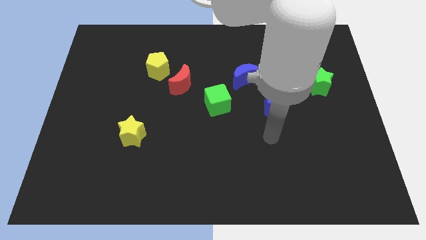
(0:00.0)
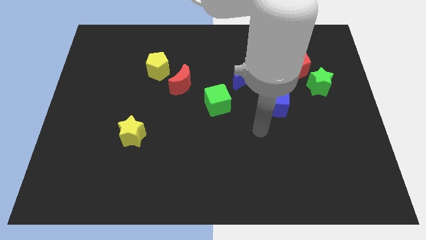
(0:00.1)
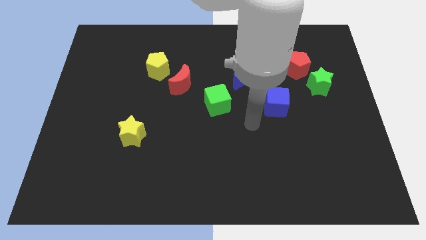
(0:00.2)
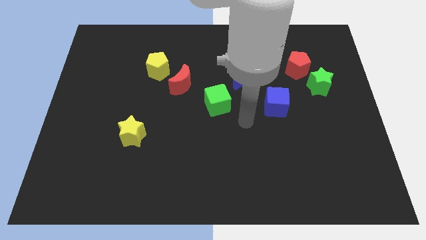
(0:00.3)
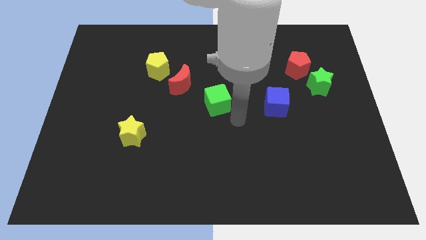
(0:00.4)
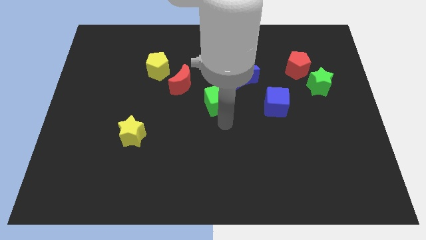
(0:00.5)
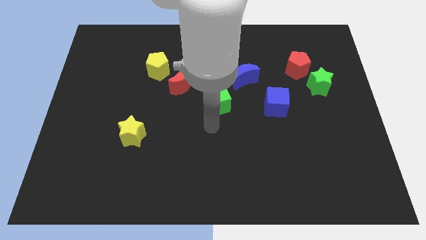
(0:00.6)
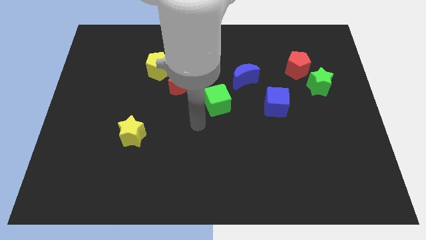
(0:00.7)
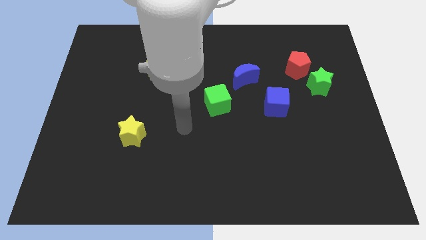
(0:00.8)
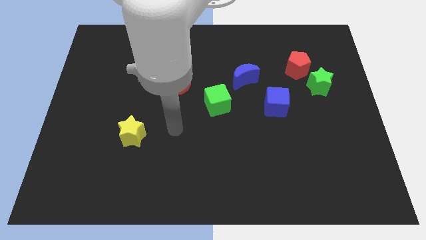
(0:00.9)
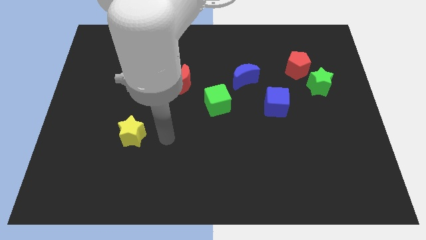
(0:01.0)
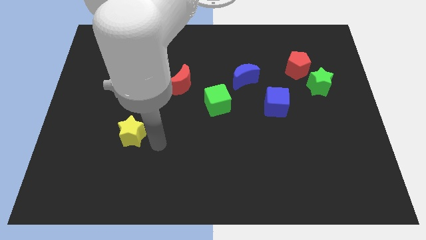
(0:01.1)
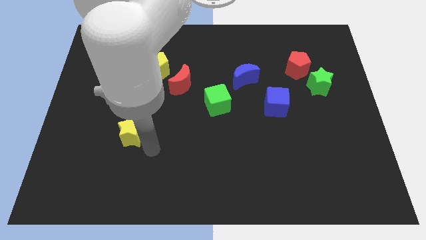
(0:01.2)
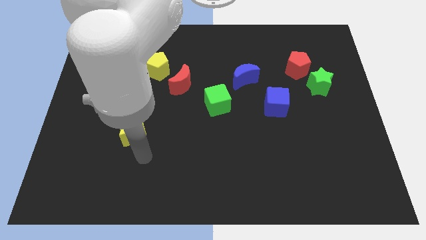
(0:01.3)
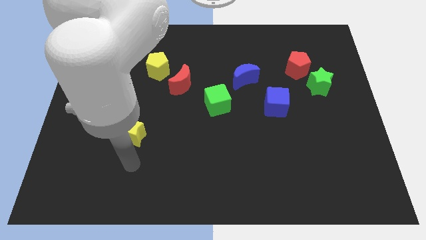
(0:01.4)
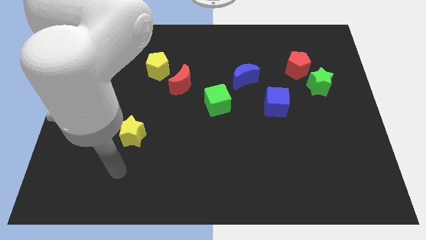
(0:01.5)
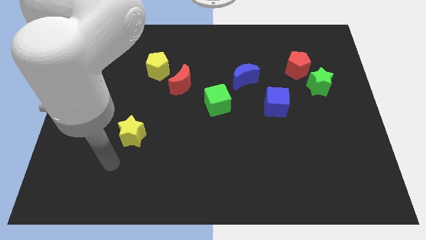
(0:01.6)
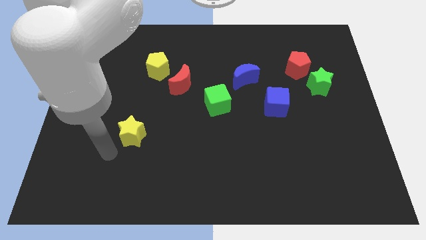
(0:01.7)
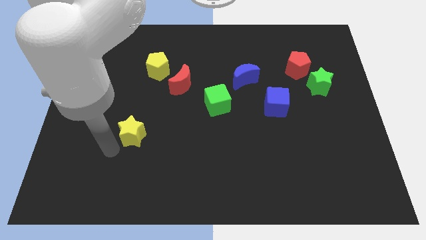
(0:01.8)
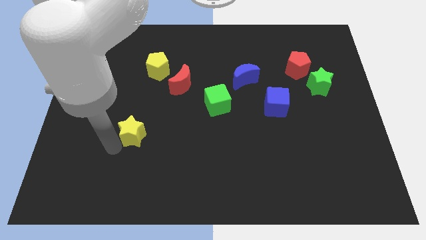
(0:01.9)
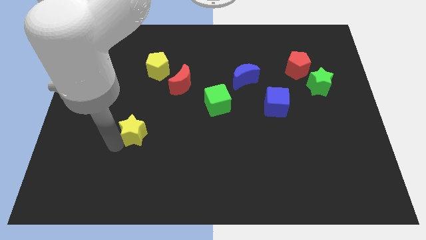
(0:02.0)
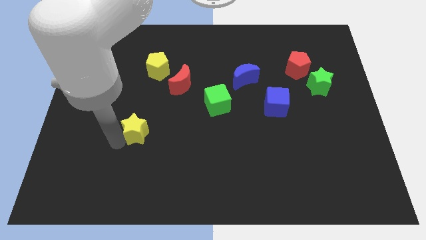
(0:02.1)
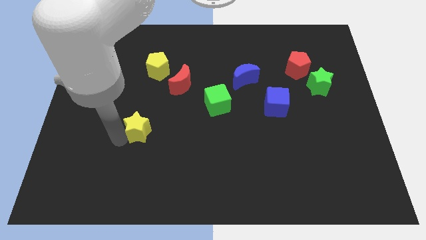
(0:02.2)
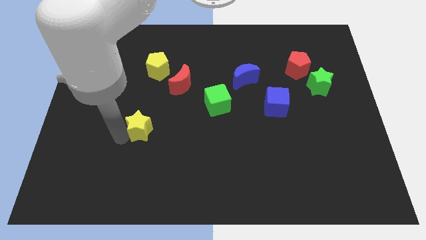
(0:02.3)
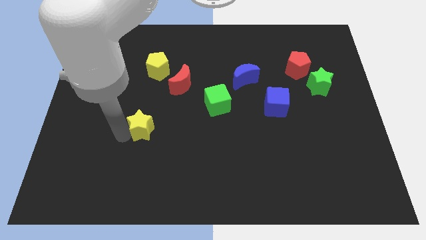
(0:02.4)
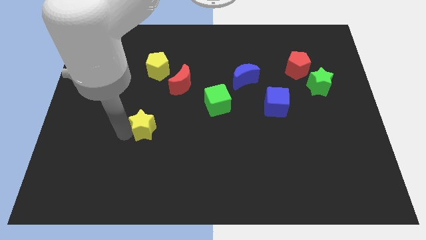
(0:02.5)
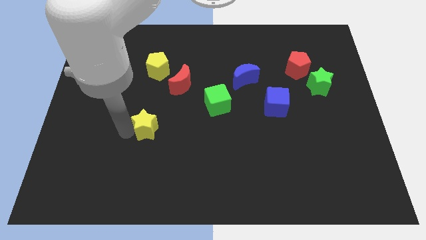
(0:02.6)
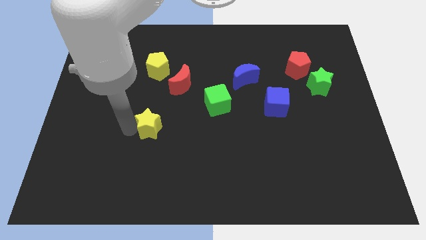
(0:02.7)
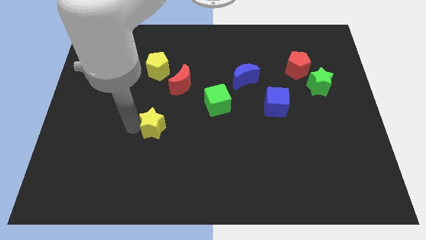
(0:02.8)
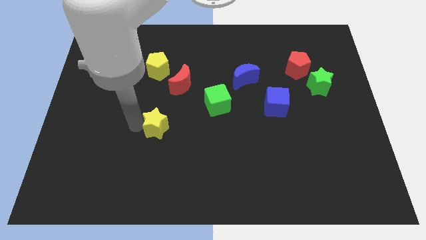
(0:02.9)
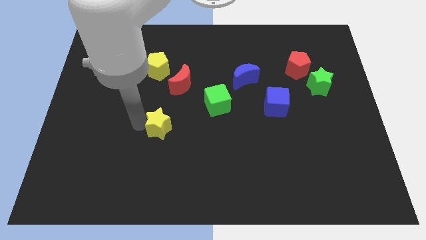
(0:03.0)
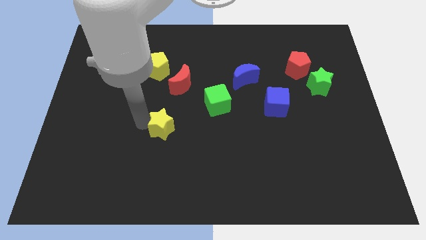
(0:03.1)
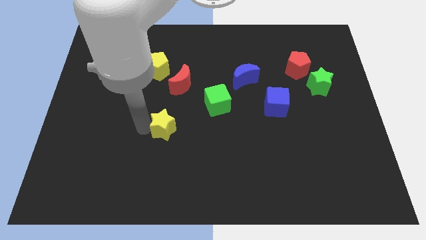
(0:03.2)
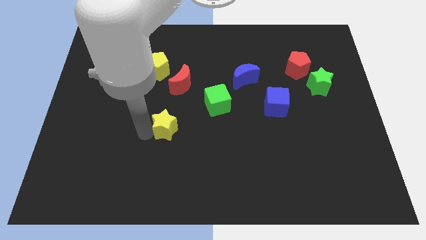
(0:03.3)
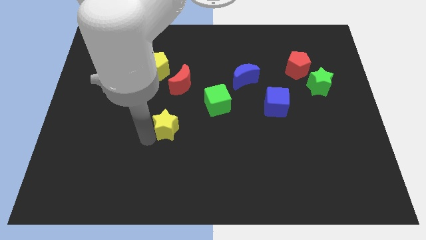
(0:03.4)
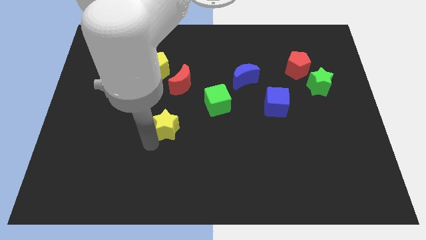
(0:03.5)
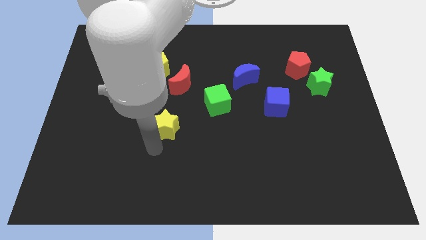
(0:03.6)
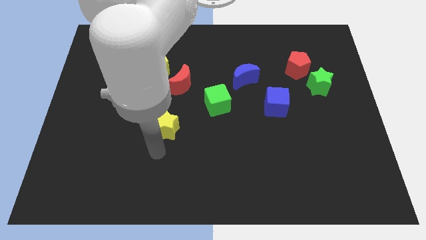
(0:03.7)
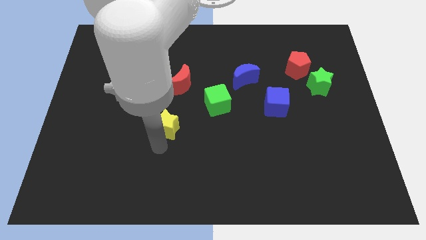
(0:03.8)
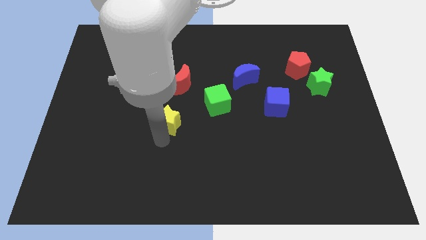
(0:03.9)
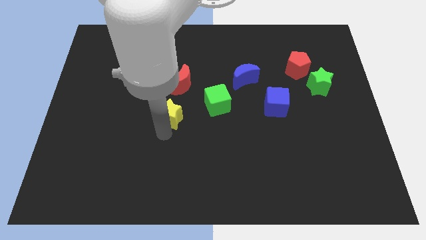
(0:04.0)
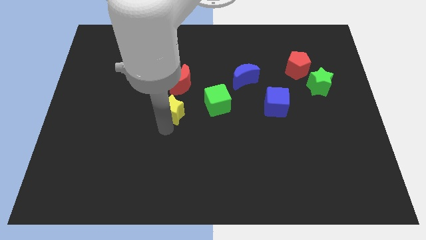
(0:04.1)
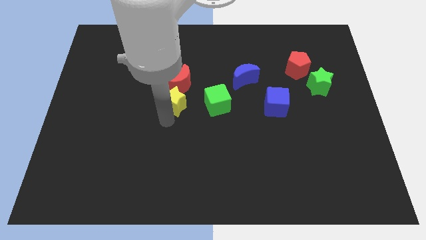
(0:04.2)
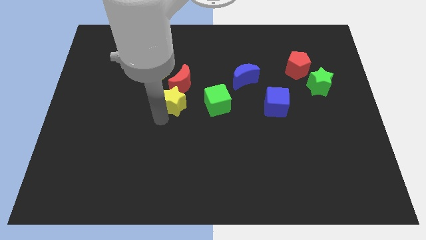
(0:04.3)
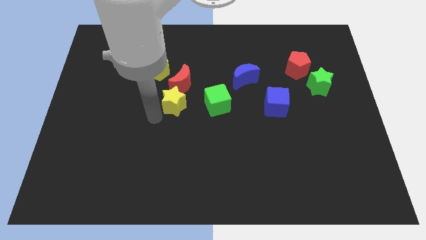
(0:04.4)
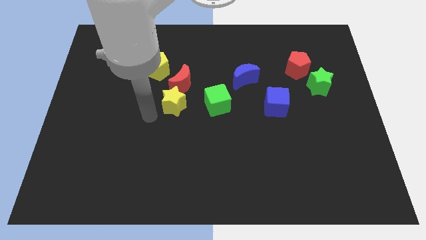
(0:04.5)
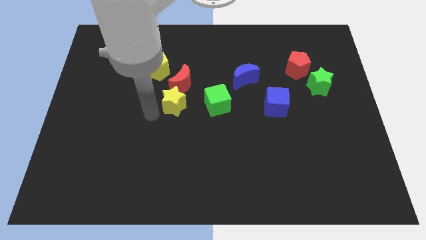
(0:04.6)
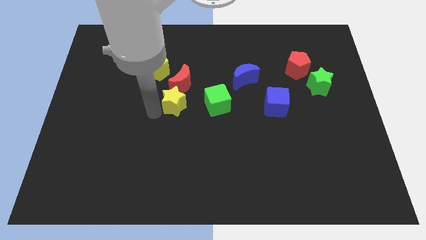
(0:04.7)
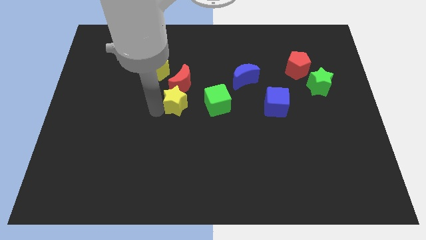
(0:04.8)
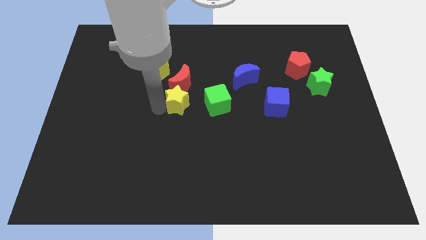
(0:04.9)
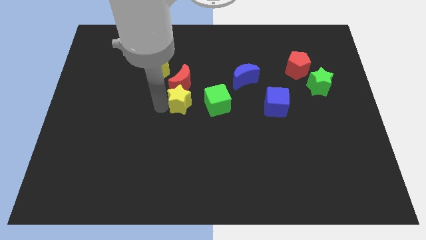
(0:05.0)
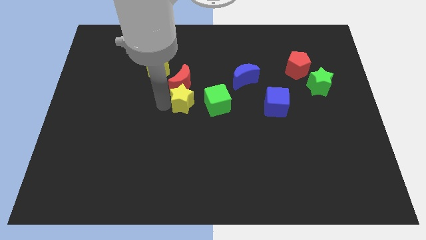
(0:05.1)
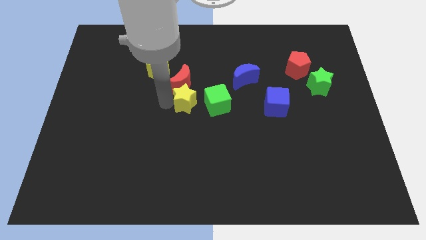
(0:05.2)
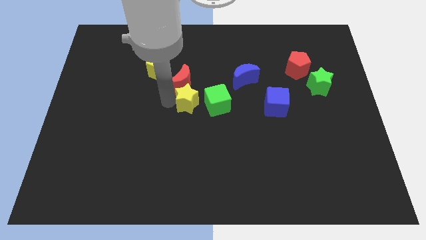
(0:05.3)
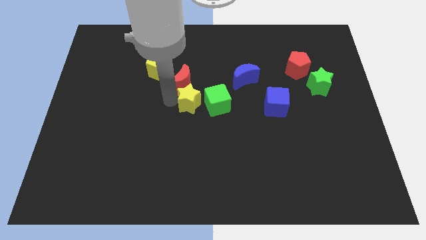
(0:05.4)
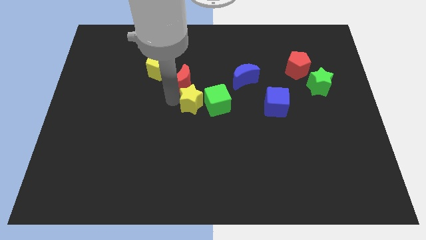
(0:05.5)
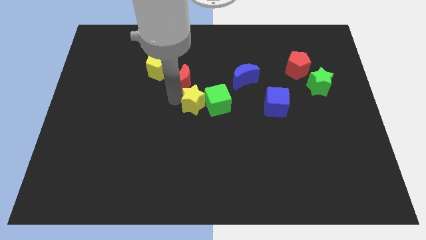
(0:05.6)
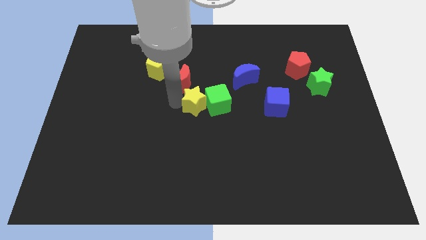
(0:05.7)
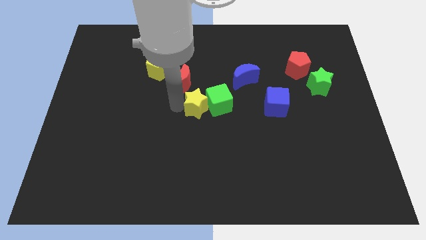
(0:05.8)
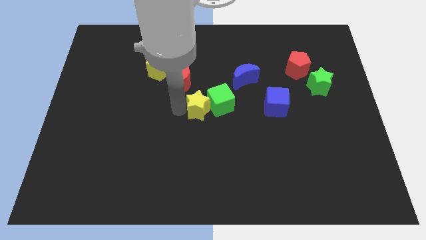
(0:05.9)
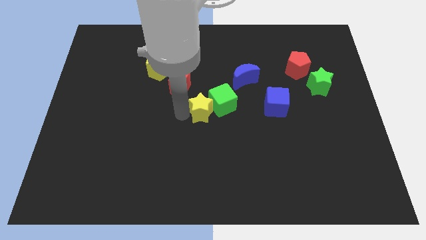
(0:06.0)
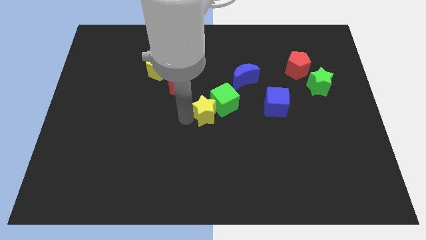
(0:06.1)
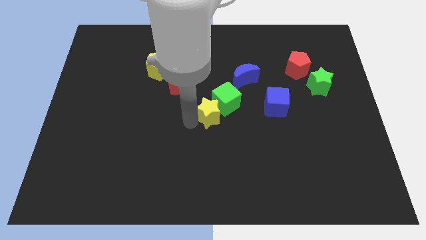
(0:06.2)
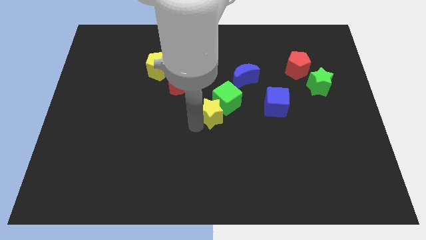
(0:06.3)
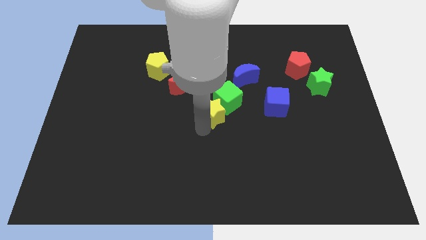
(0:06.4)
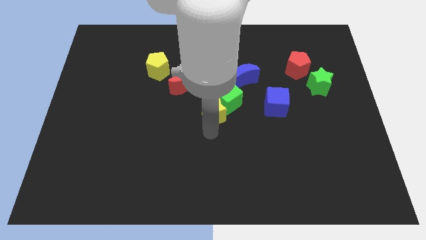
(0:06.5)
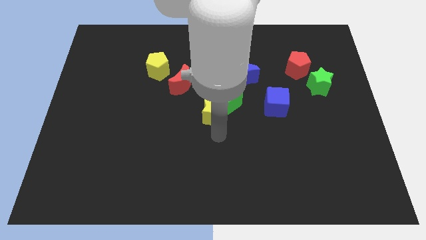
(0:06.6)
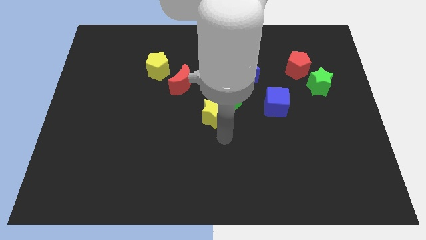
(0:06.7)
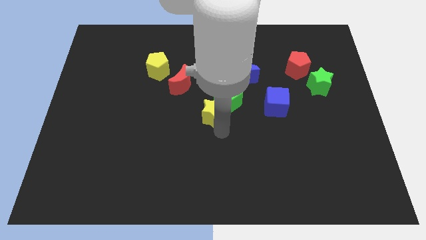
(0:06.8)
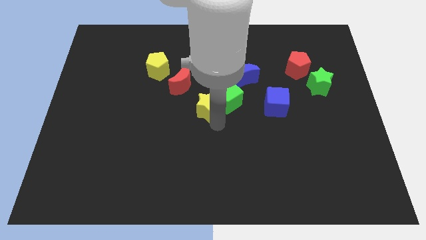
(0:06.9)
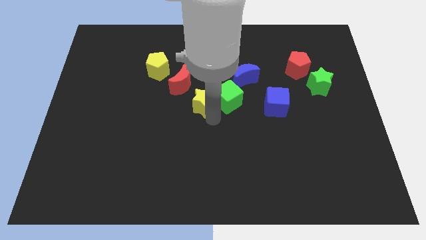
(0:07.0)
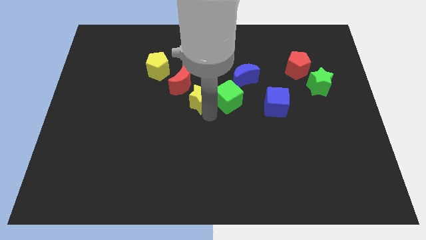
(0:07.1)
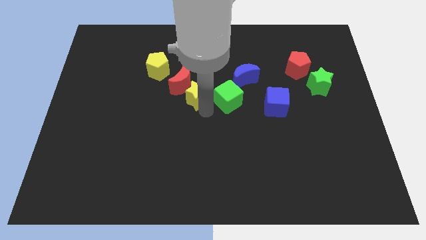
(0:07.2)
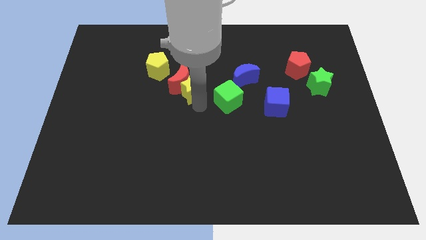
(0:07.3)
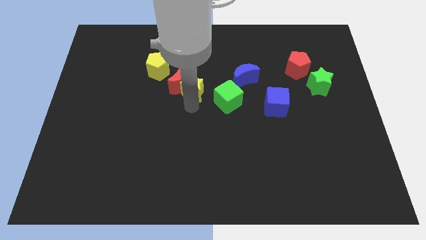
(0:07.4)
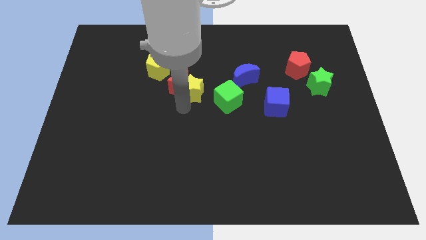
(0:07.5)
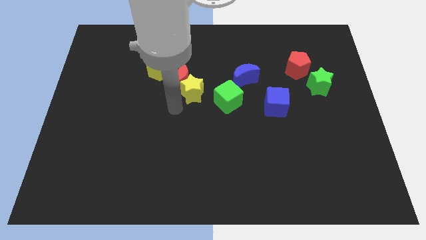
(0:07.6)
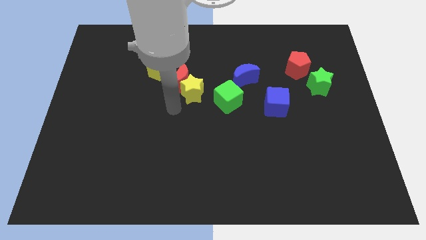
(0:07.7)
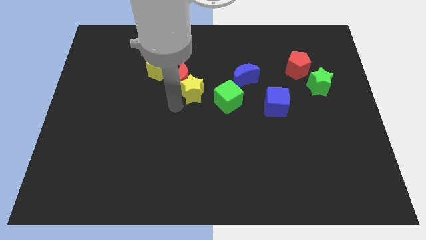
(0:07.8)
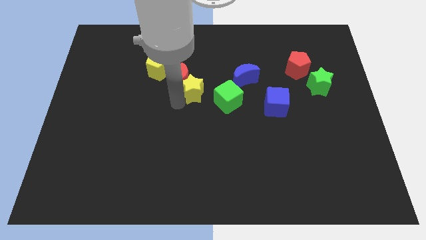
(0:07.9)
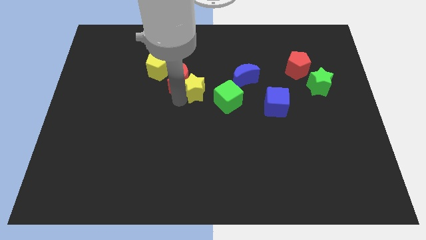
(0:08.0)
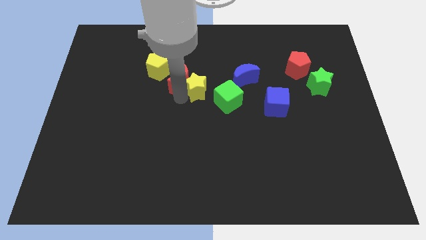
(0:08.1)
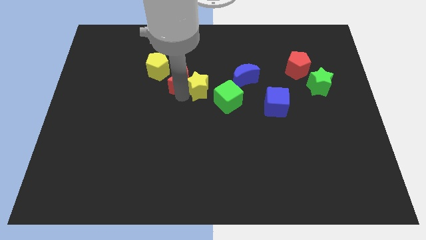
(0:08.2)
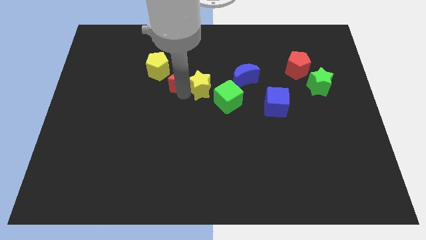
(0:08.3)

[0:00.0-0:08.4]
push the yellow star up and to the right
